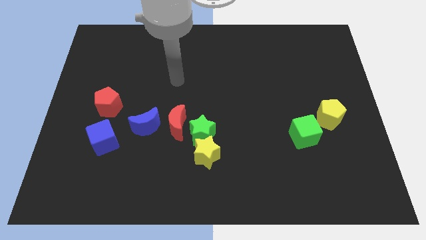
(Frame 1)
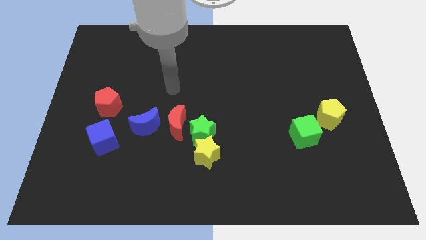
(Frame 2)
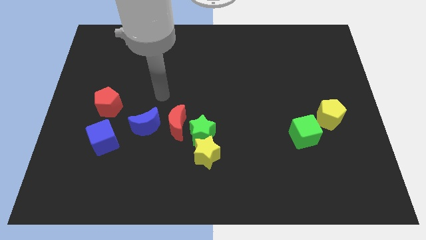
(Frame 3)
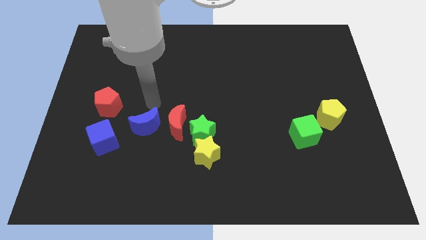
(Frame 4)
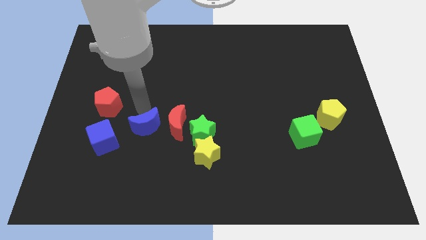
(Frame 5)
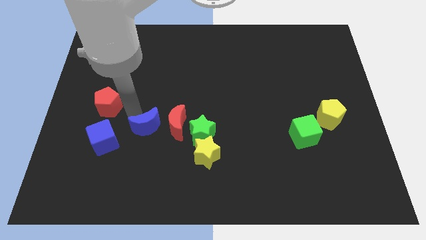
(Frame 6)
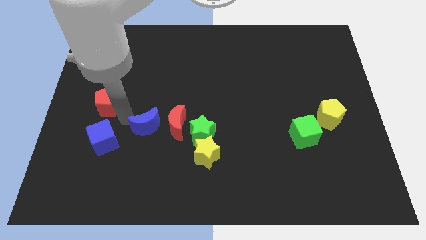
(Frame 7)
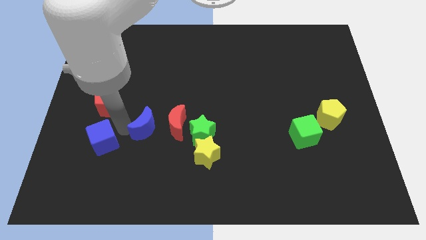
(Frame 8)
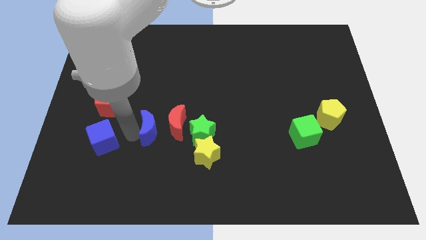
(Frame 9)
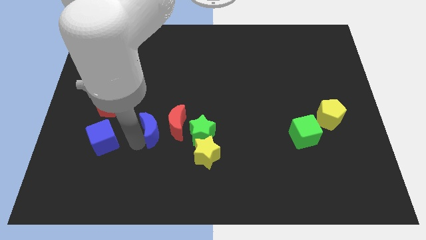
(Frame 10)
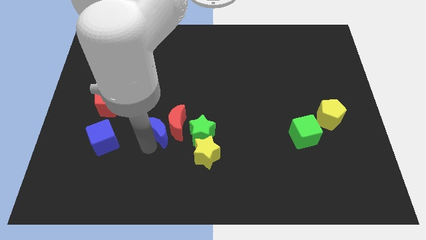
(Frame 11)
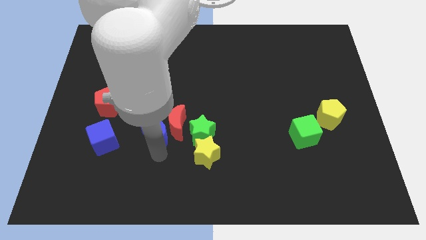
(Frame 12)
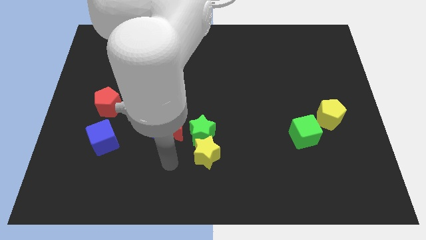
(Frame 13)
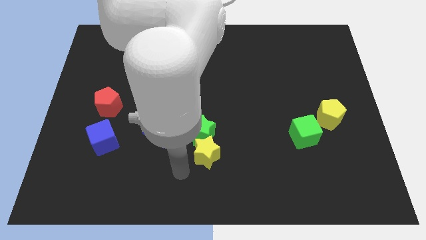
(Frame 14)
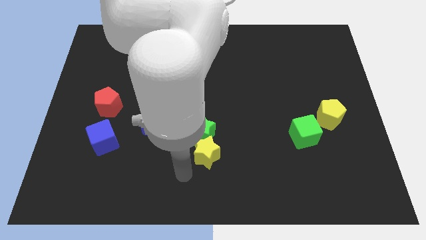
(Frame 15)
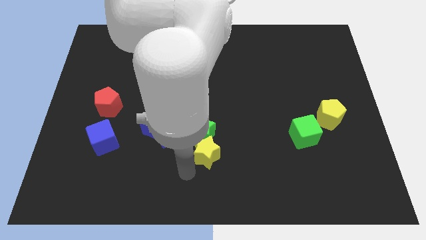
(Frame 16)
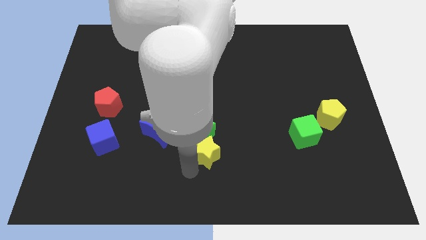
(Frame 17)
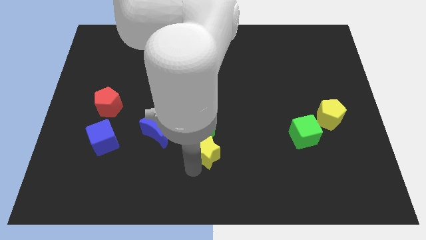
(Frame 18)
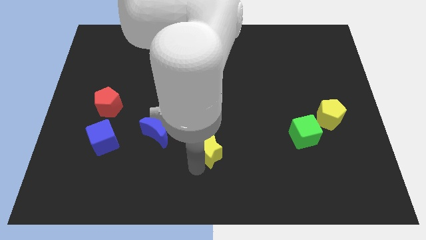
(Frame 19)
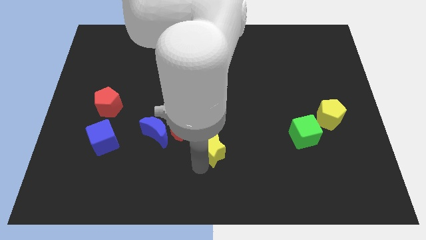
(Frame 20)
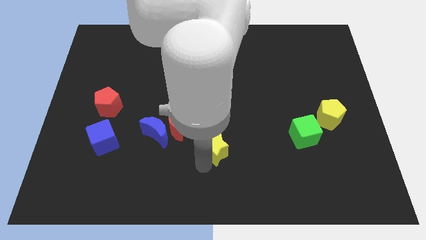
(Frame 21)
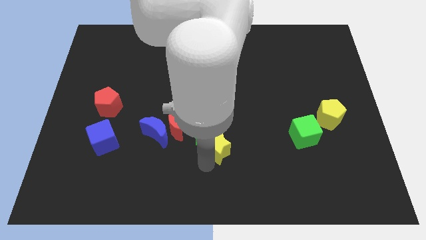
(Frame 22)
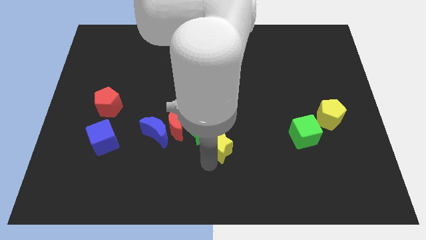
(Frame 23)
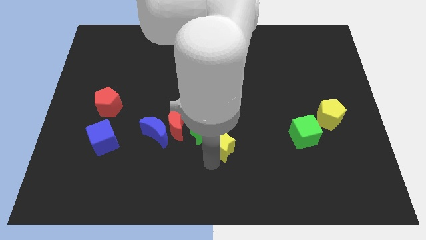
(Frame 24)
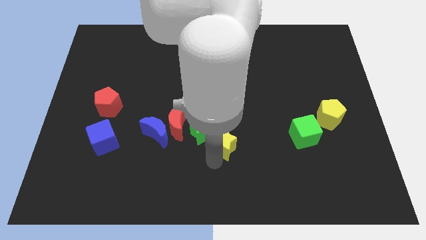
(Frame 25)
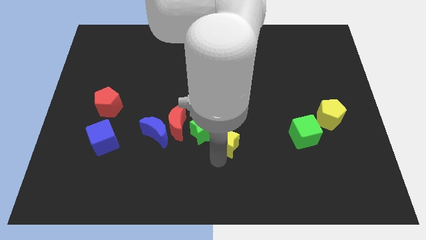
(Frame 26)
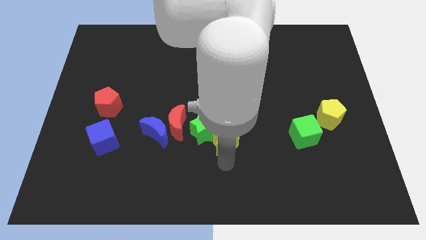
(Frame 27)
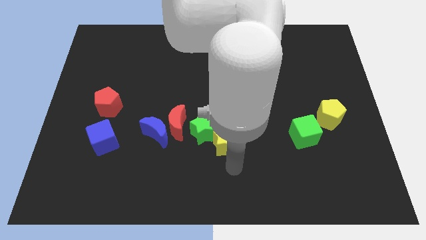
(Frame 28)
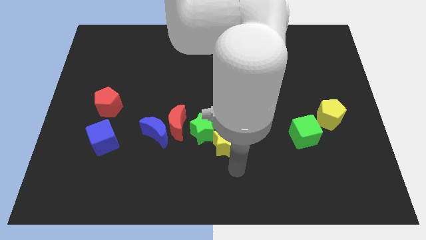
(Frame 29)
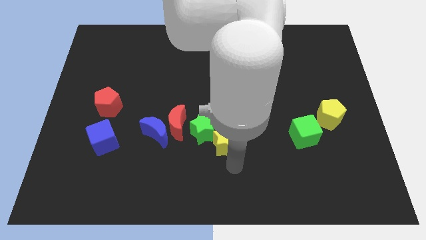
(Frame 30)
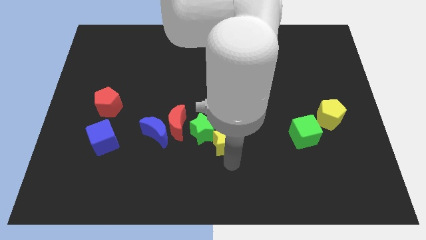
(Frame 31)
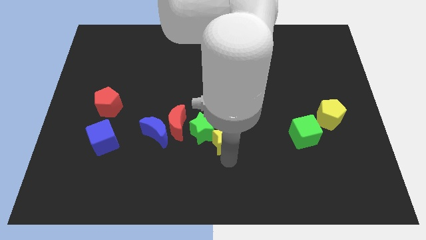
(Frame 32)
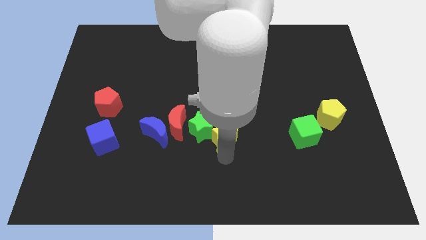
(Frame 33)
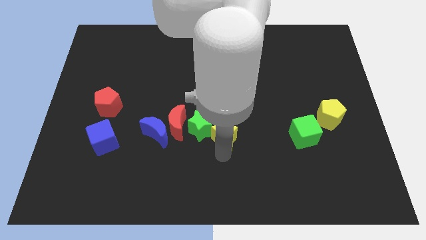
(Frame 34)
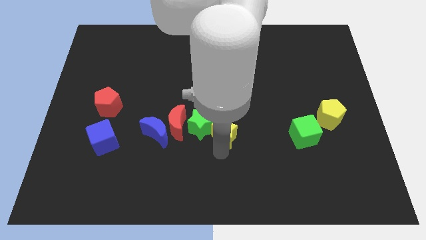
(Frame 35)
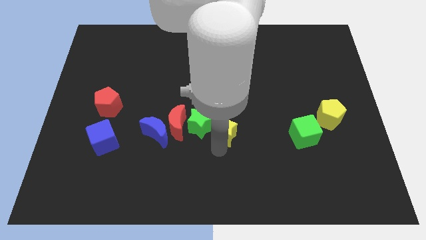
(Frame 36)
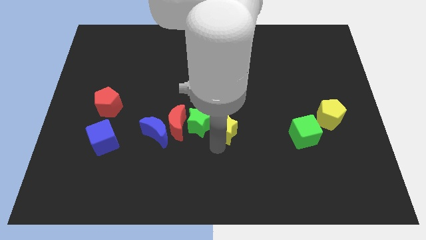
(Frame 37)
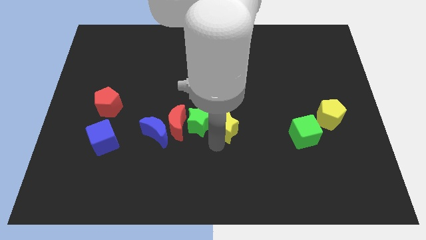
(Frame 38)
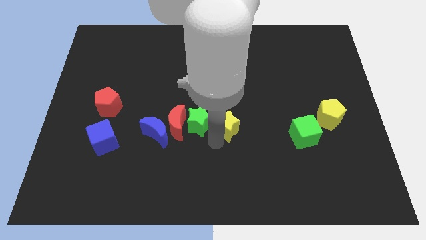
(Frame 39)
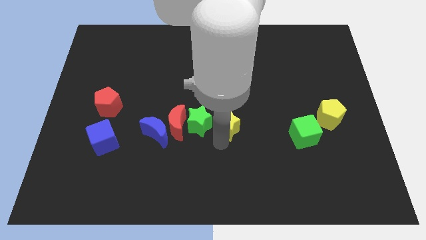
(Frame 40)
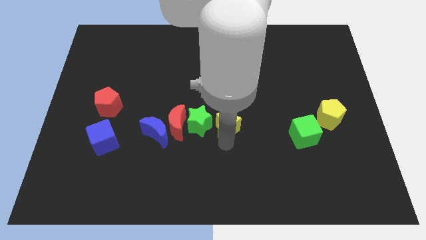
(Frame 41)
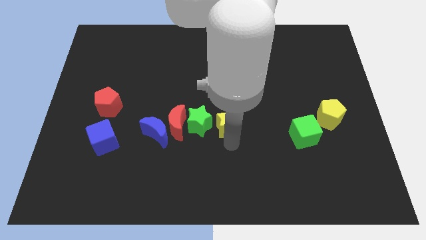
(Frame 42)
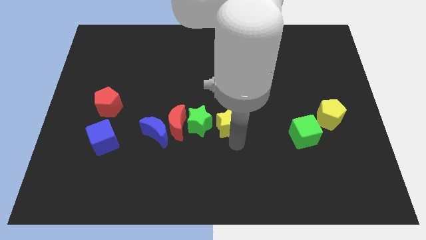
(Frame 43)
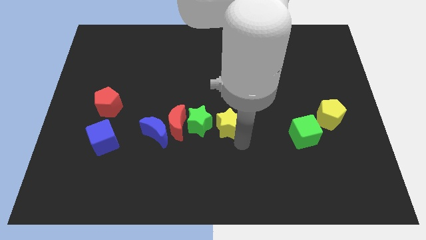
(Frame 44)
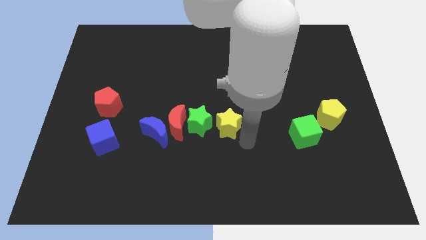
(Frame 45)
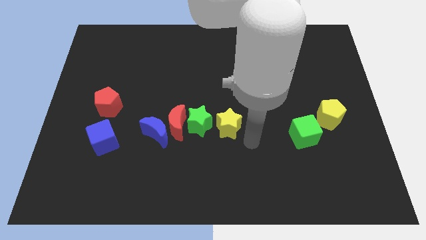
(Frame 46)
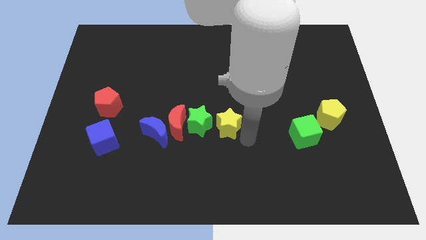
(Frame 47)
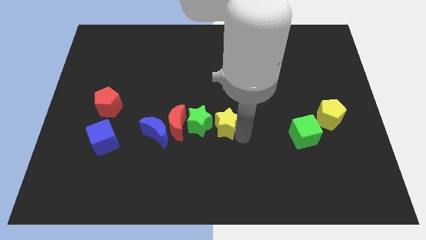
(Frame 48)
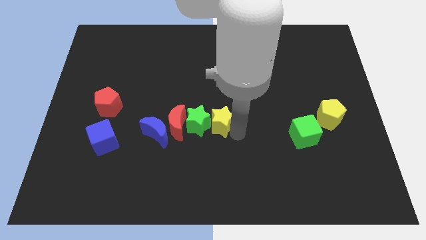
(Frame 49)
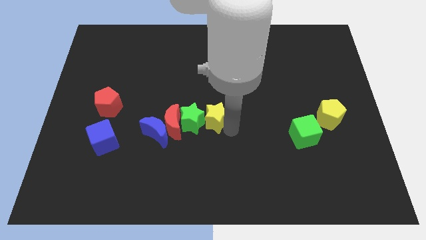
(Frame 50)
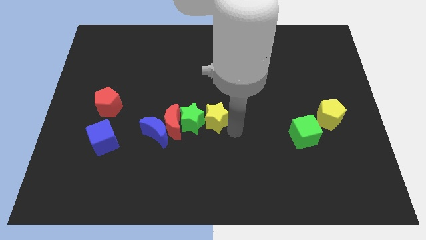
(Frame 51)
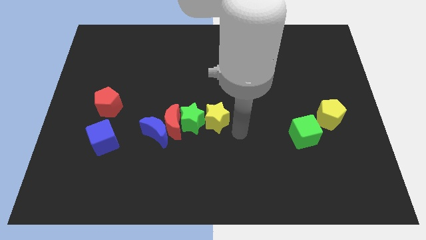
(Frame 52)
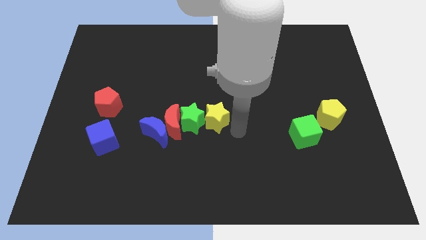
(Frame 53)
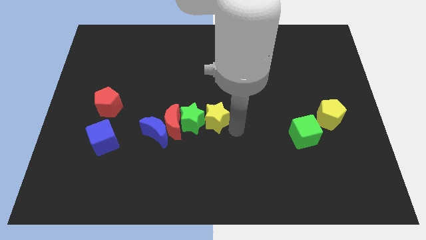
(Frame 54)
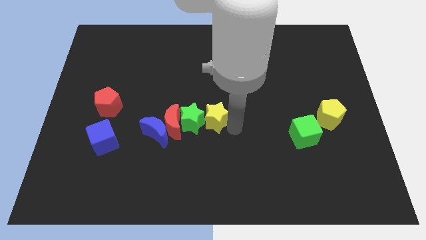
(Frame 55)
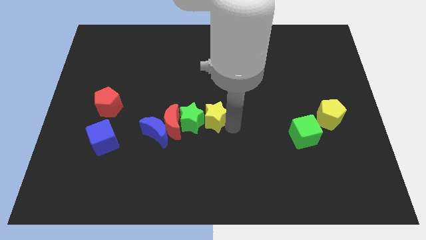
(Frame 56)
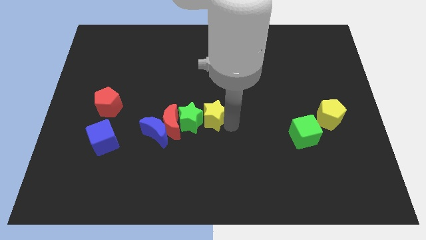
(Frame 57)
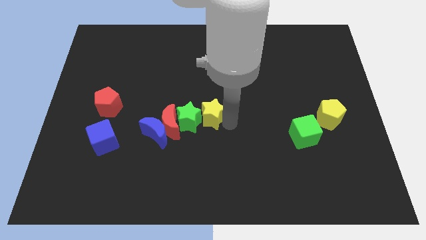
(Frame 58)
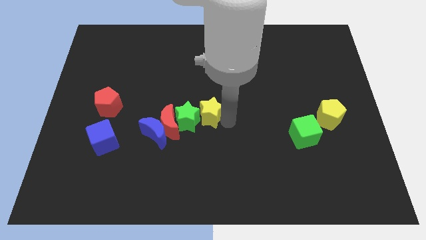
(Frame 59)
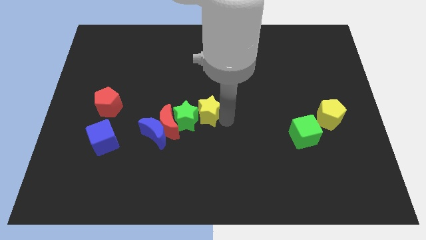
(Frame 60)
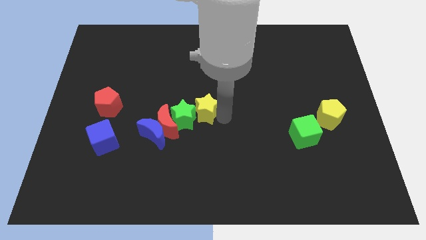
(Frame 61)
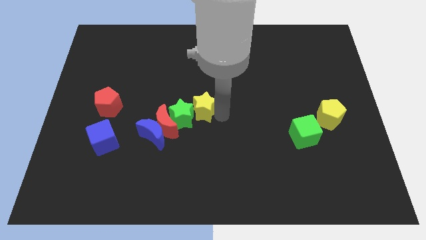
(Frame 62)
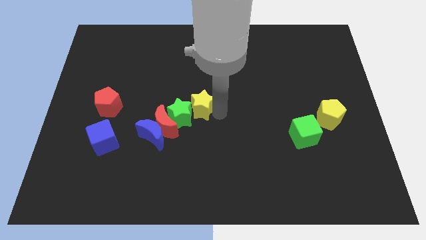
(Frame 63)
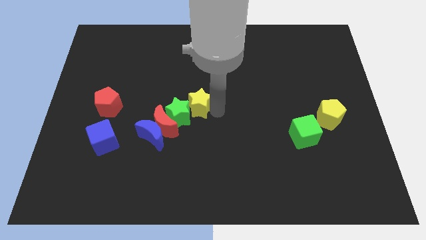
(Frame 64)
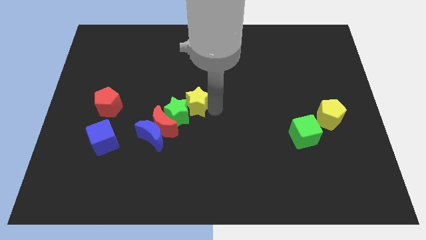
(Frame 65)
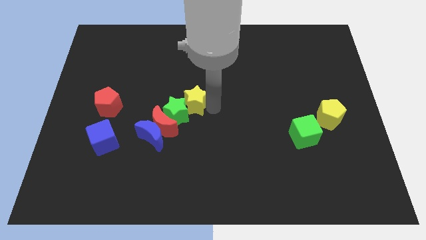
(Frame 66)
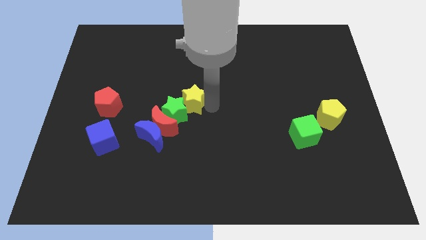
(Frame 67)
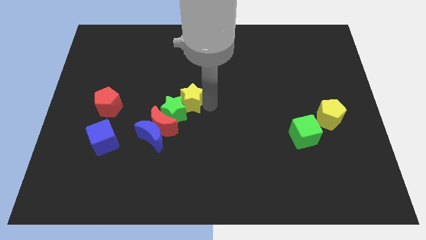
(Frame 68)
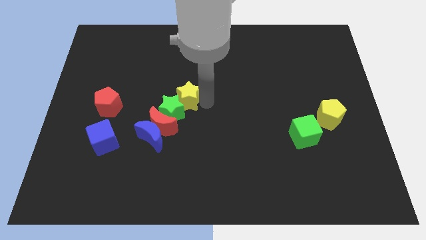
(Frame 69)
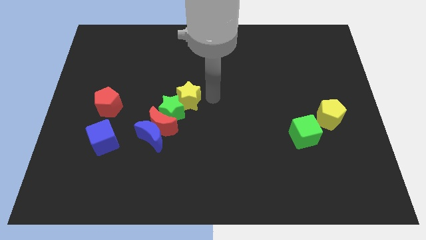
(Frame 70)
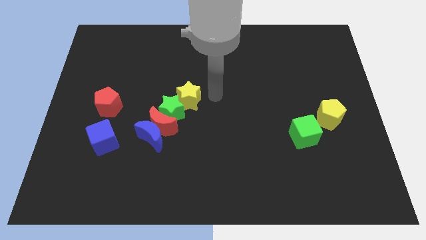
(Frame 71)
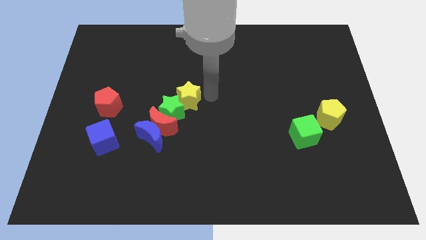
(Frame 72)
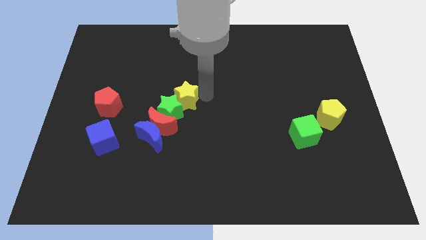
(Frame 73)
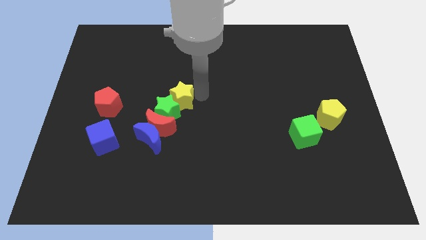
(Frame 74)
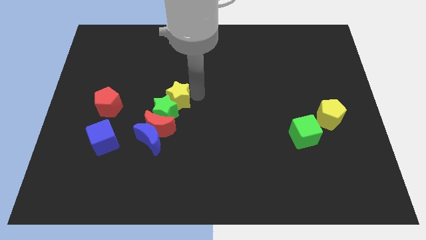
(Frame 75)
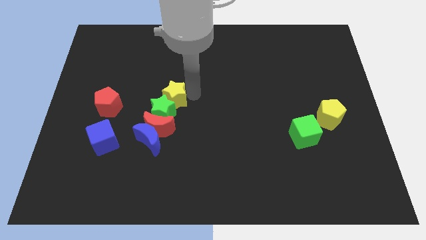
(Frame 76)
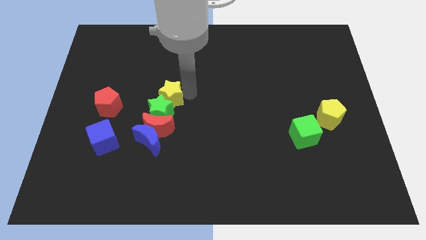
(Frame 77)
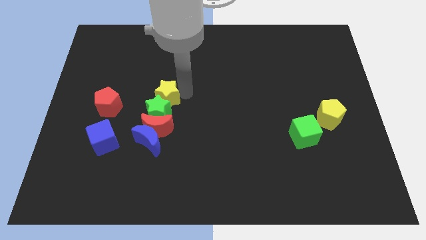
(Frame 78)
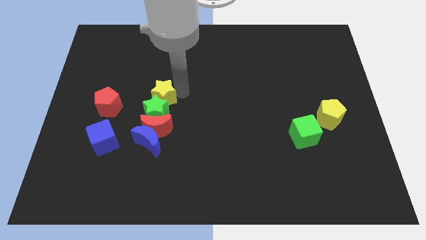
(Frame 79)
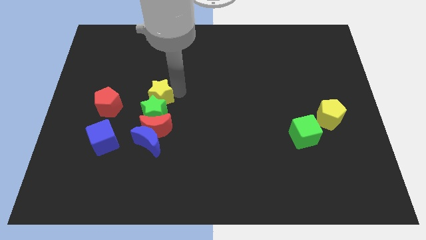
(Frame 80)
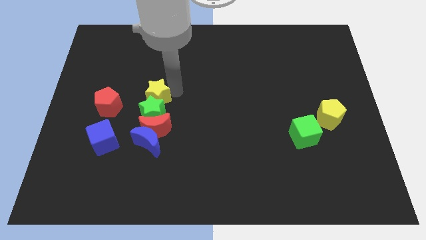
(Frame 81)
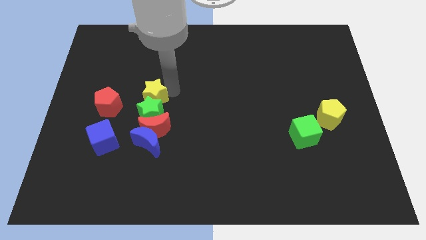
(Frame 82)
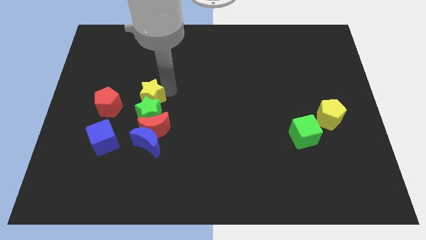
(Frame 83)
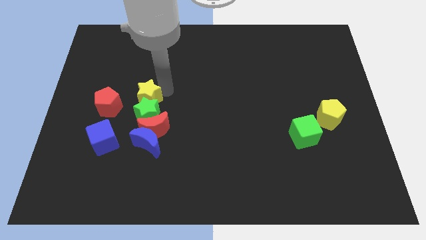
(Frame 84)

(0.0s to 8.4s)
put the yellow star to the top left of the red moon

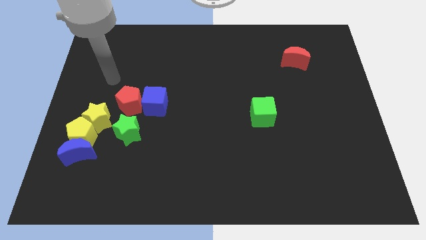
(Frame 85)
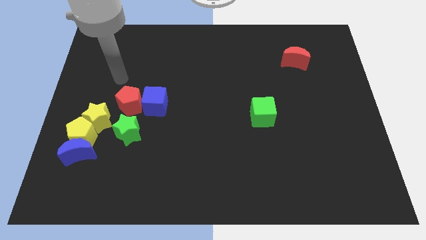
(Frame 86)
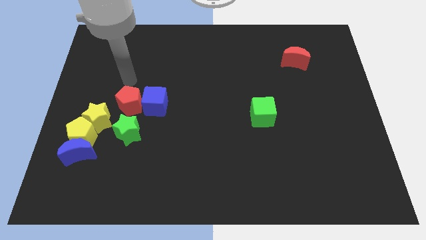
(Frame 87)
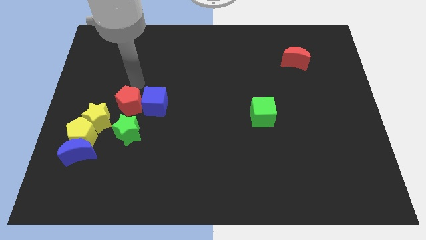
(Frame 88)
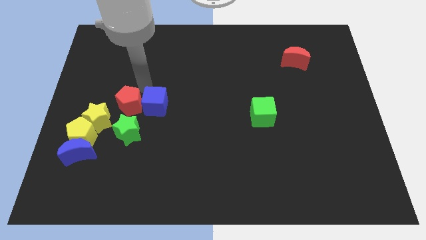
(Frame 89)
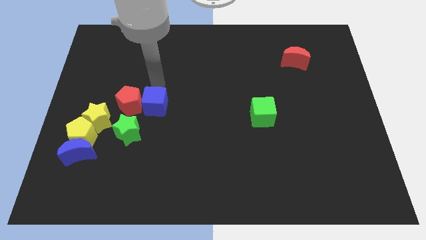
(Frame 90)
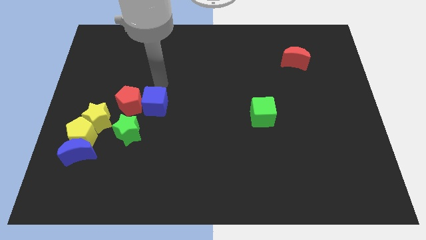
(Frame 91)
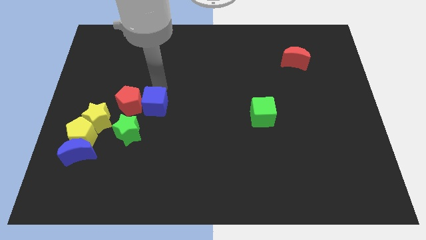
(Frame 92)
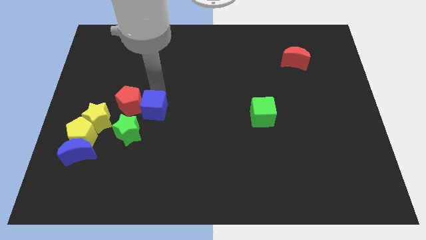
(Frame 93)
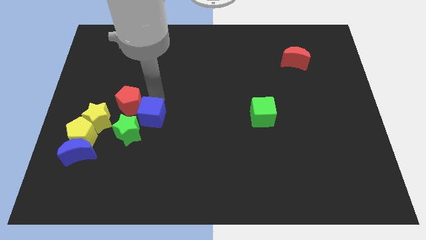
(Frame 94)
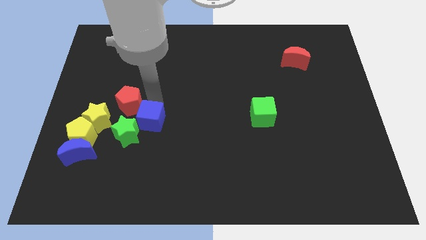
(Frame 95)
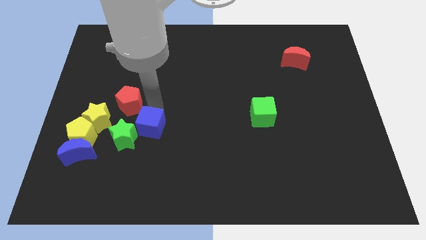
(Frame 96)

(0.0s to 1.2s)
put the blue cube to the right side of the yellow pentagon
